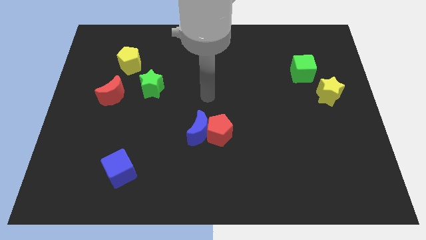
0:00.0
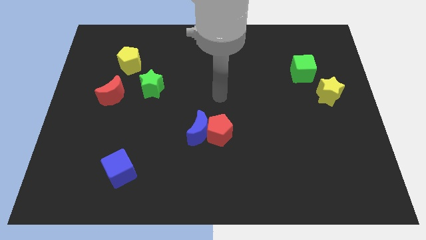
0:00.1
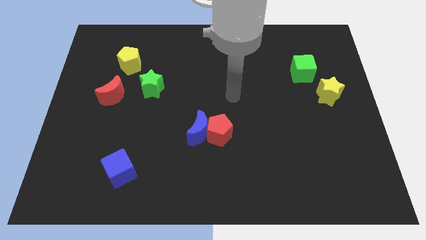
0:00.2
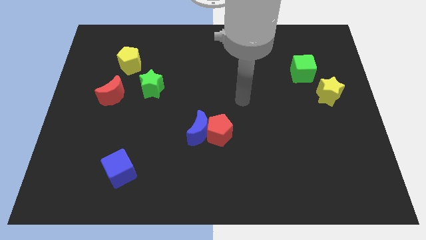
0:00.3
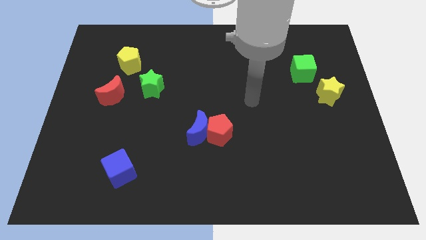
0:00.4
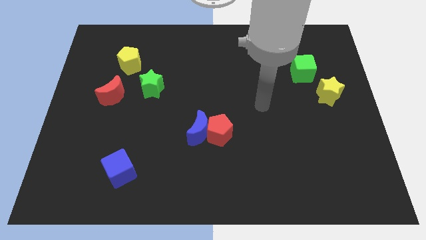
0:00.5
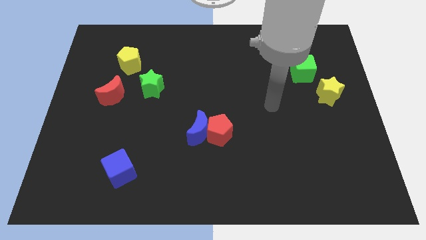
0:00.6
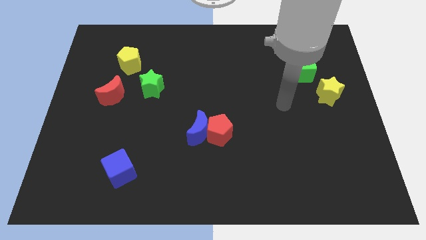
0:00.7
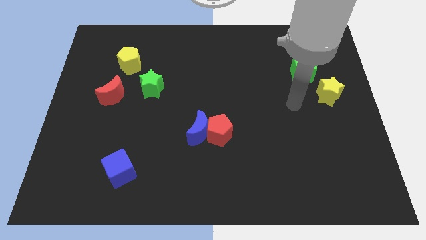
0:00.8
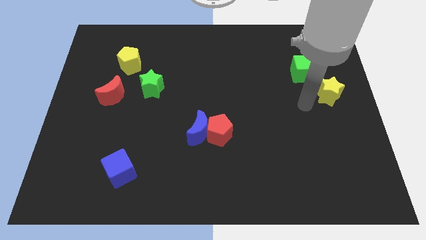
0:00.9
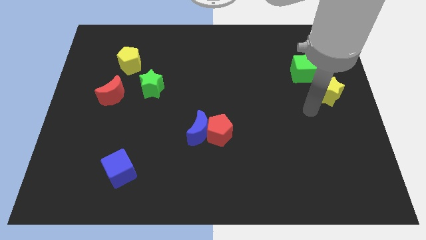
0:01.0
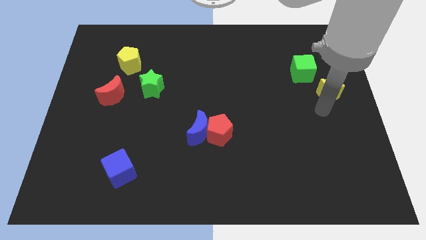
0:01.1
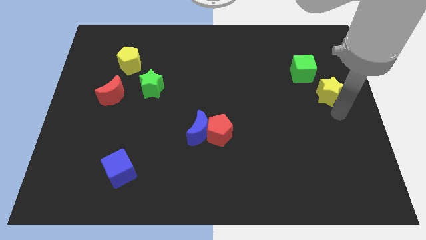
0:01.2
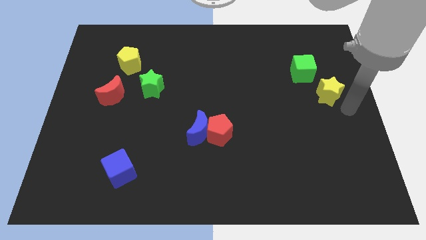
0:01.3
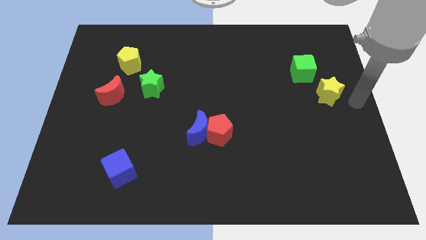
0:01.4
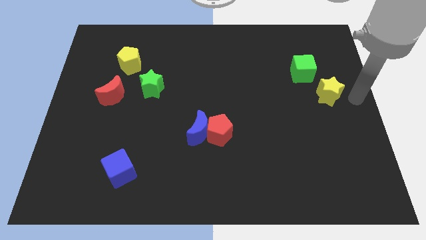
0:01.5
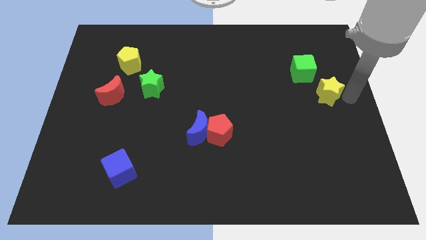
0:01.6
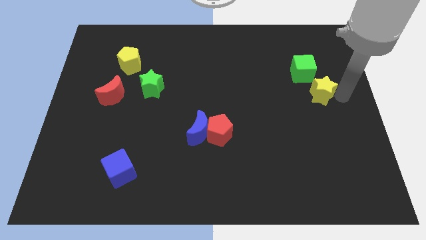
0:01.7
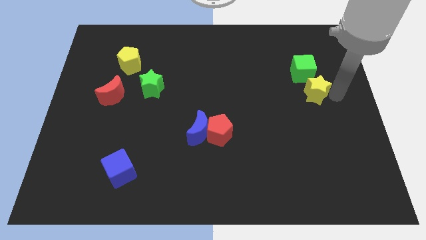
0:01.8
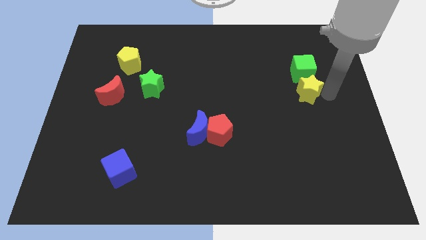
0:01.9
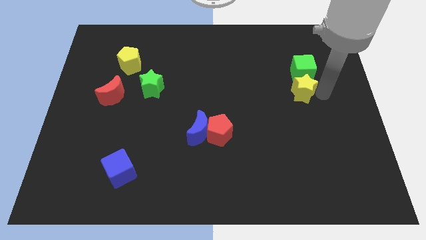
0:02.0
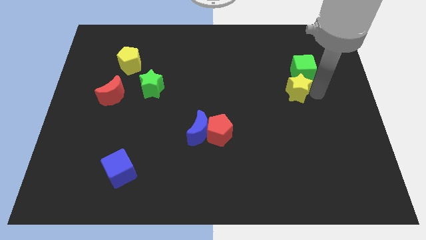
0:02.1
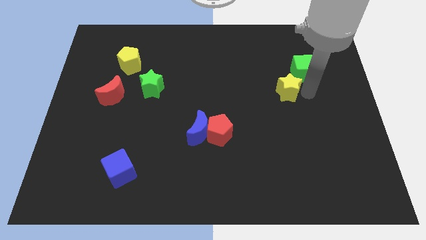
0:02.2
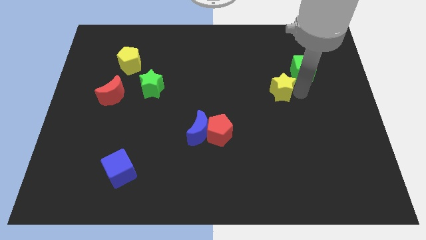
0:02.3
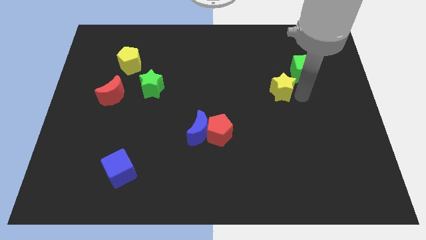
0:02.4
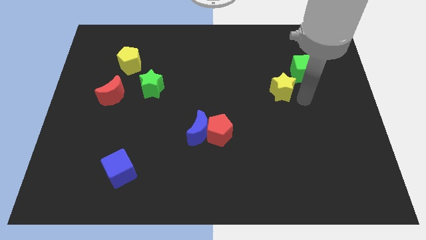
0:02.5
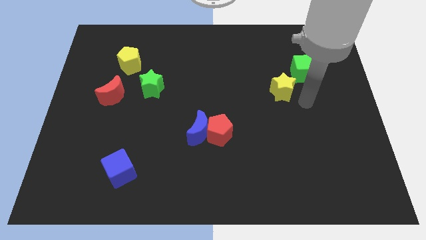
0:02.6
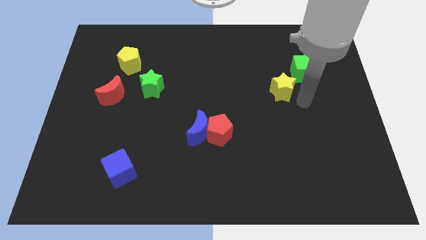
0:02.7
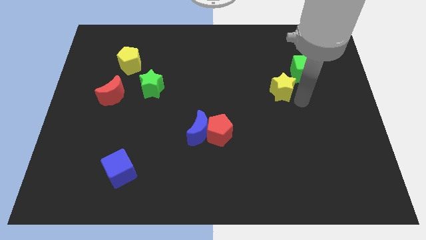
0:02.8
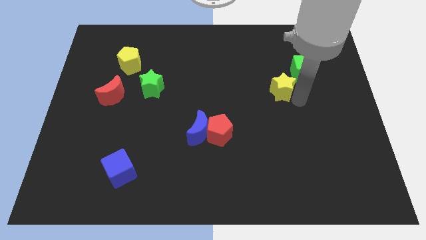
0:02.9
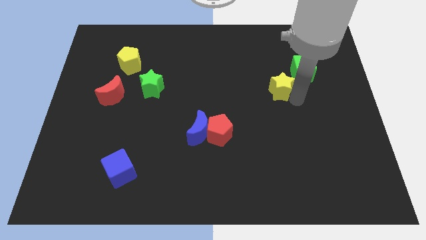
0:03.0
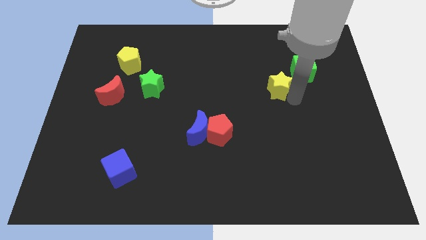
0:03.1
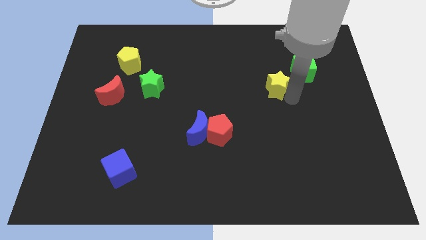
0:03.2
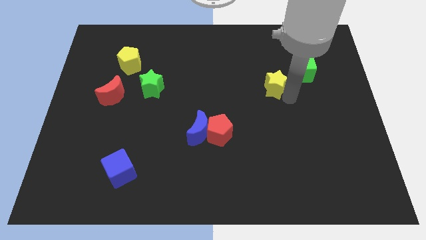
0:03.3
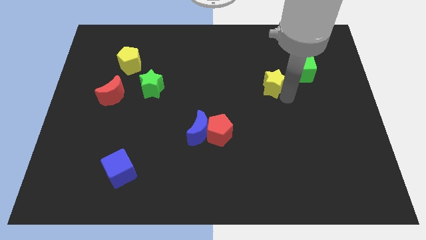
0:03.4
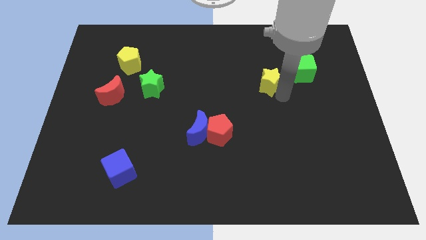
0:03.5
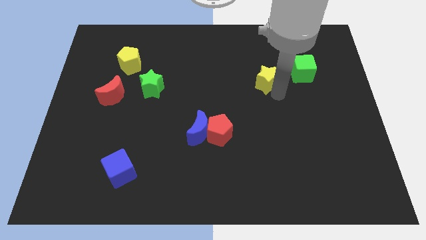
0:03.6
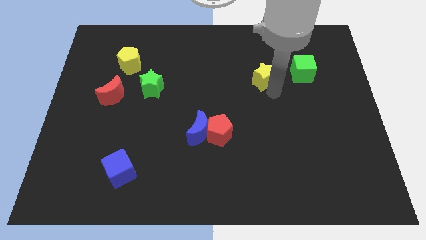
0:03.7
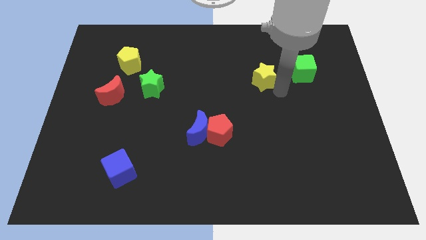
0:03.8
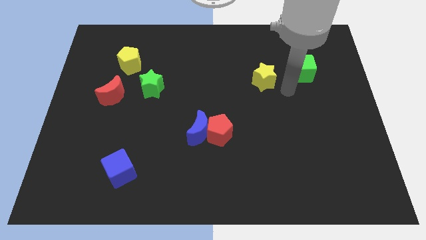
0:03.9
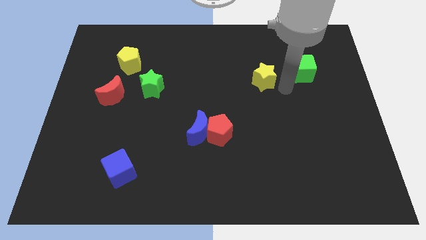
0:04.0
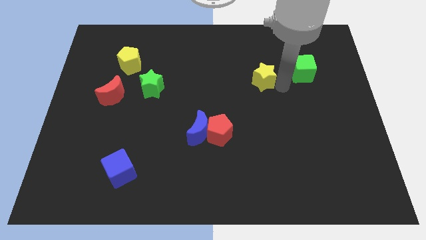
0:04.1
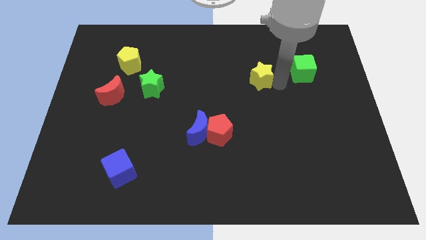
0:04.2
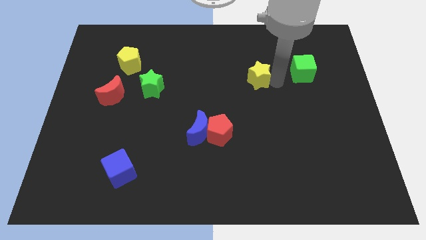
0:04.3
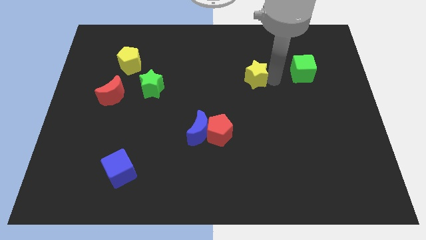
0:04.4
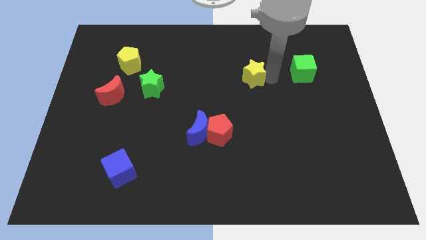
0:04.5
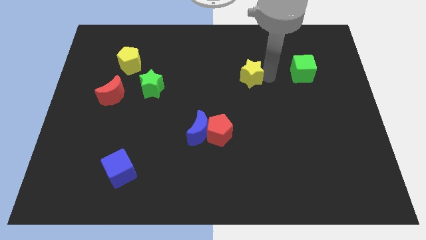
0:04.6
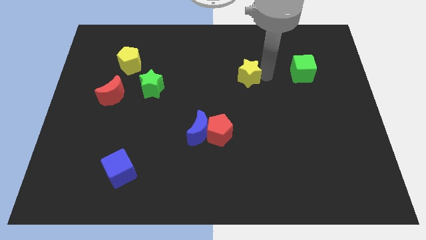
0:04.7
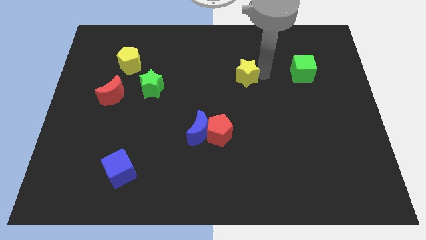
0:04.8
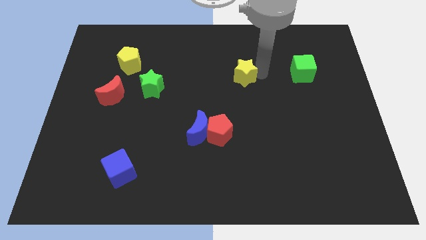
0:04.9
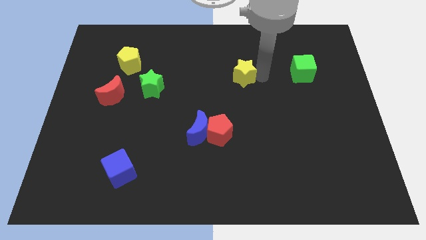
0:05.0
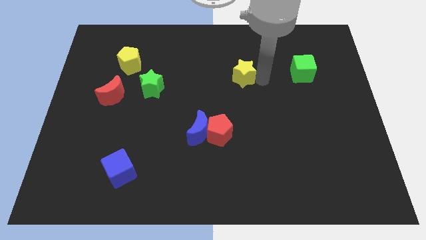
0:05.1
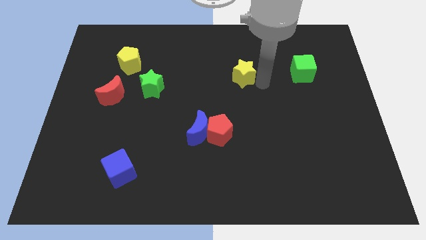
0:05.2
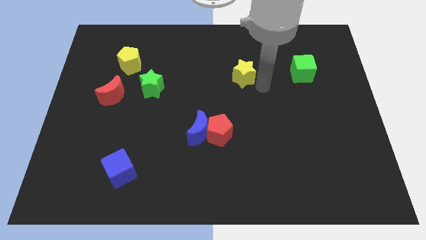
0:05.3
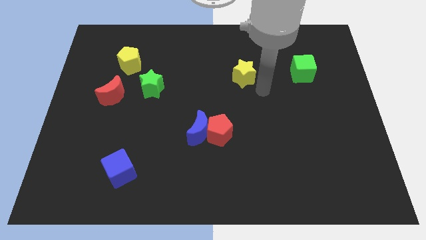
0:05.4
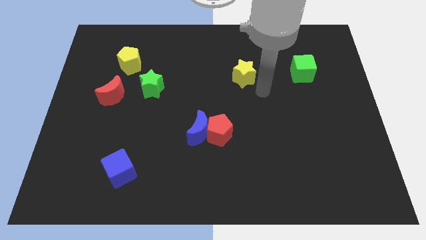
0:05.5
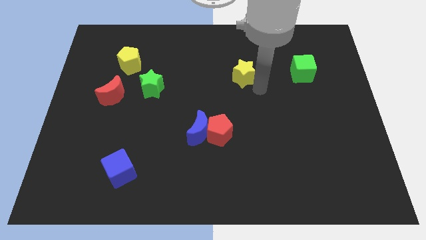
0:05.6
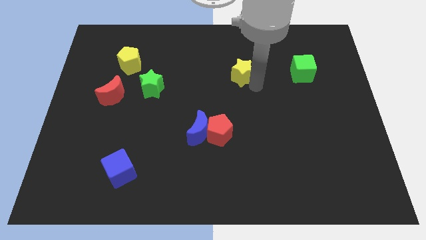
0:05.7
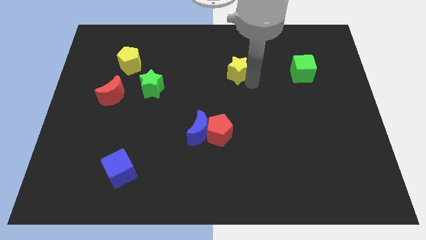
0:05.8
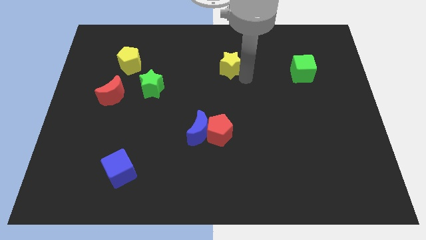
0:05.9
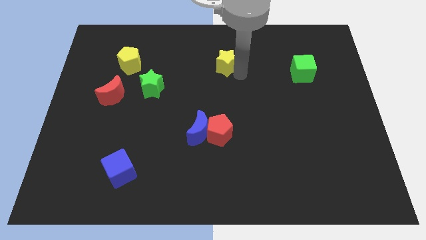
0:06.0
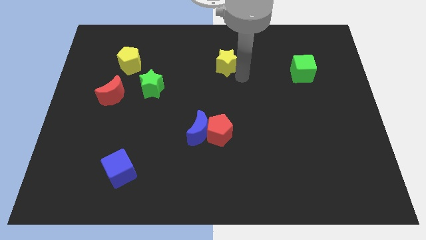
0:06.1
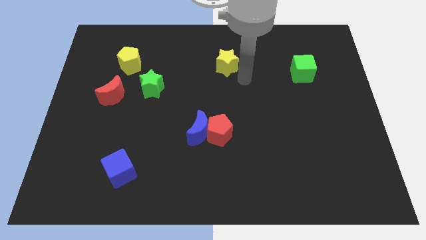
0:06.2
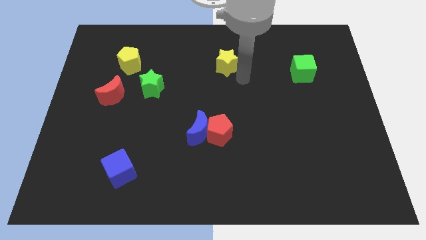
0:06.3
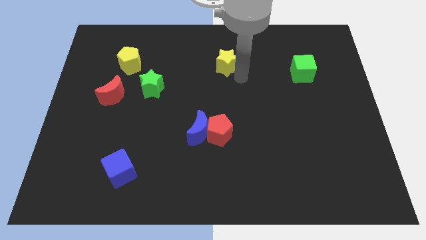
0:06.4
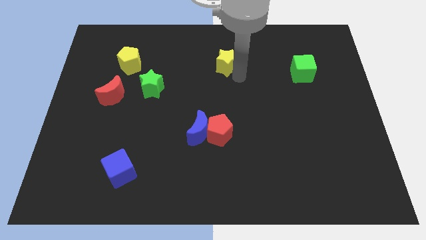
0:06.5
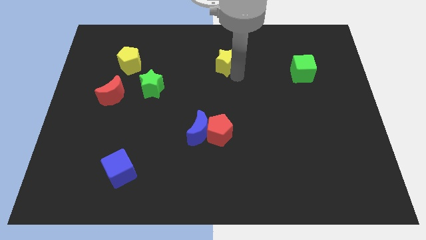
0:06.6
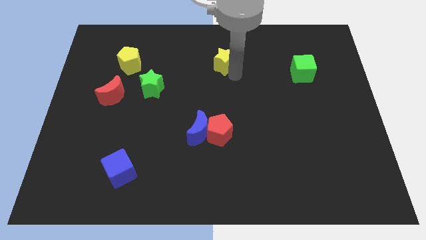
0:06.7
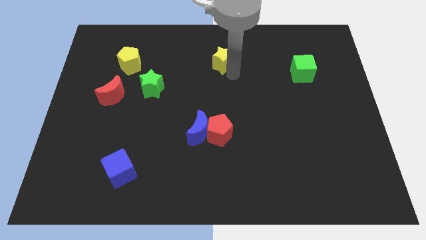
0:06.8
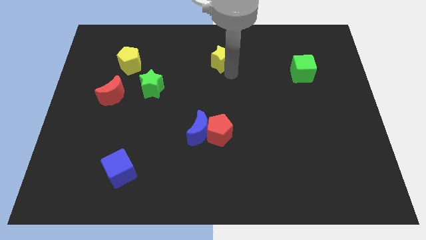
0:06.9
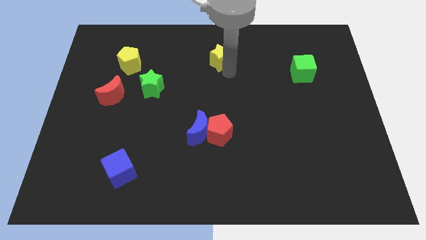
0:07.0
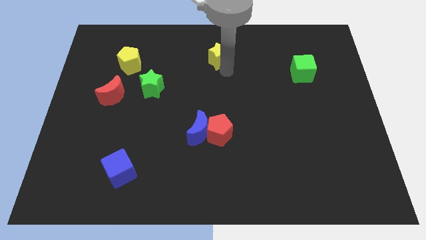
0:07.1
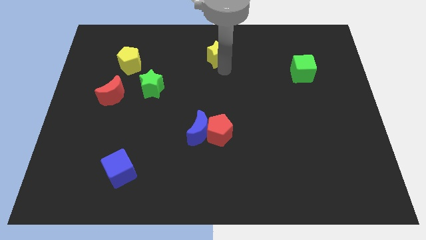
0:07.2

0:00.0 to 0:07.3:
push the yellow star to the top

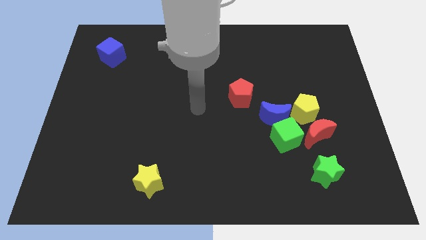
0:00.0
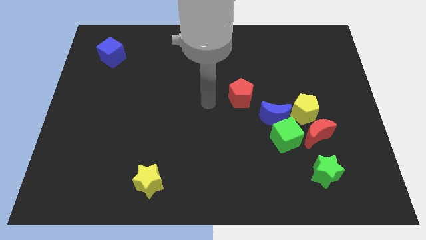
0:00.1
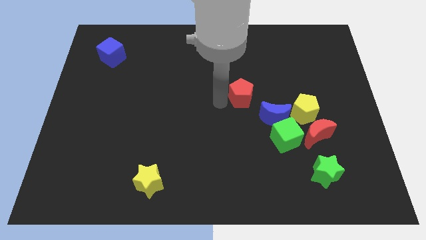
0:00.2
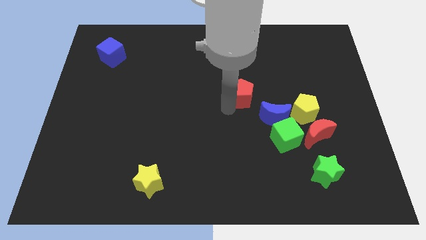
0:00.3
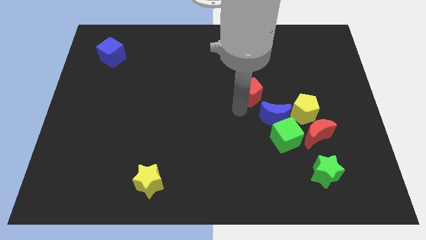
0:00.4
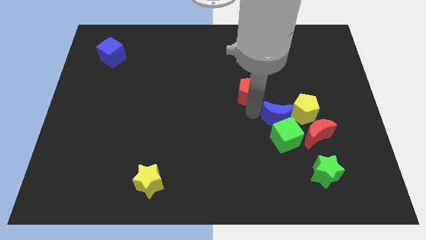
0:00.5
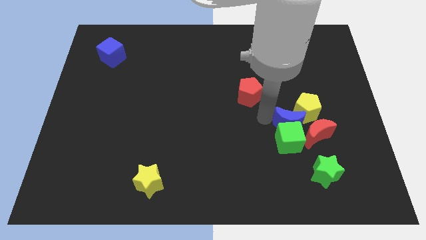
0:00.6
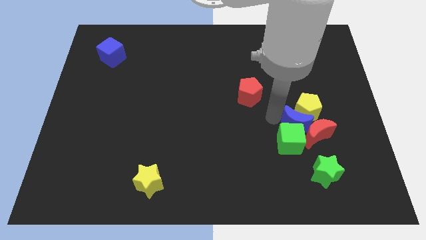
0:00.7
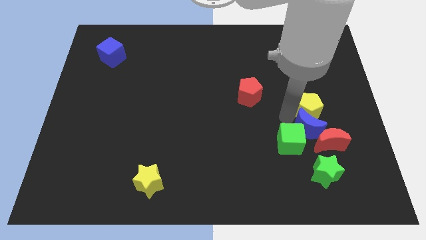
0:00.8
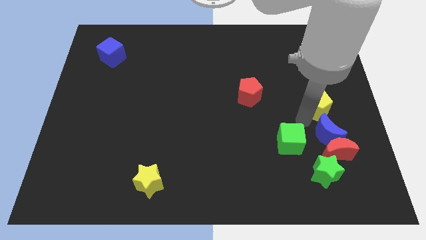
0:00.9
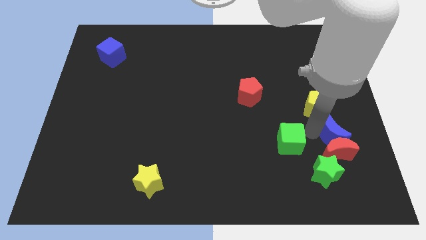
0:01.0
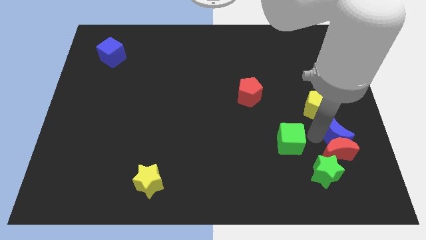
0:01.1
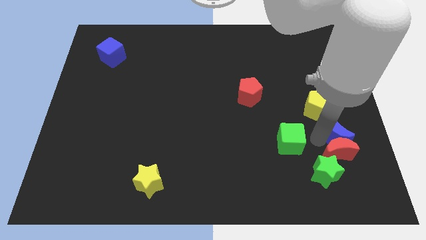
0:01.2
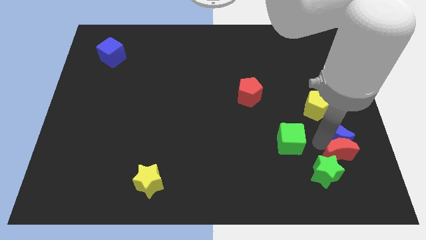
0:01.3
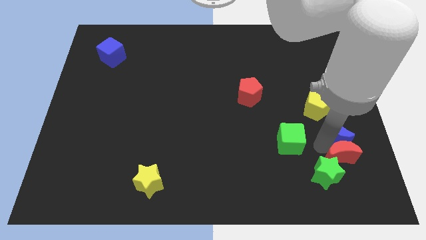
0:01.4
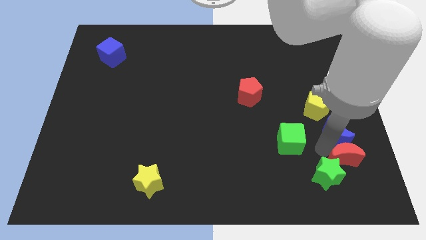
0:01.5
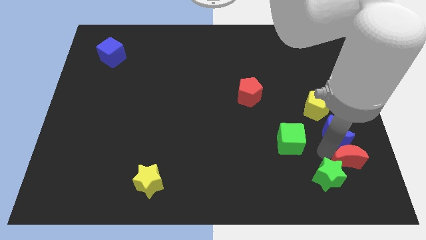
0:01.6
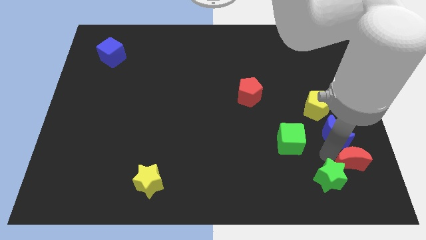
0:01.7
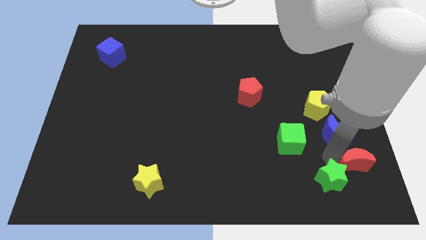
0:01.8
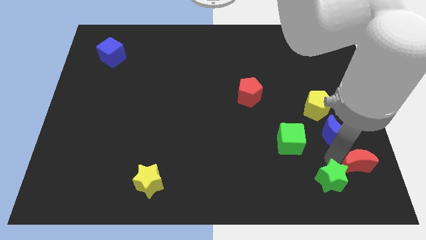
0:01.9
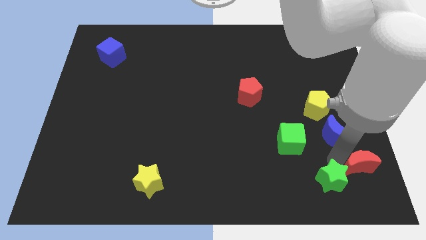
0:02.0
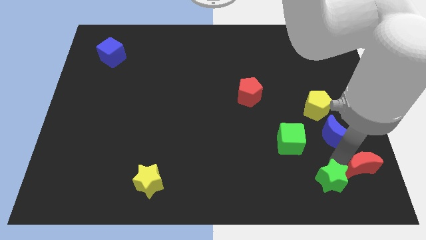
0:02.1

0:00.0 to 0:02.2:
slide the red moon to the bottom right of the board
